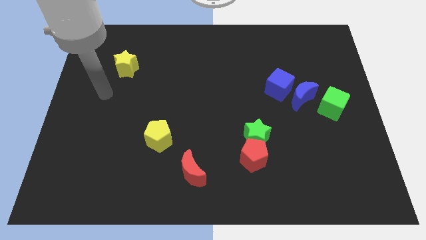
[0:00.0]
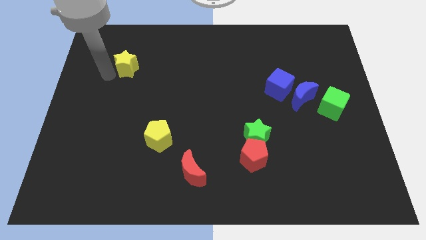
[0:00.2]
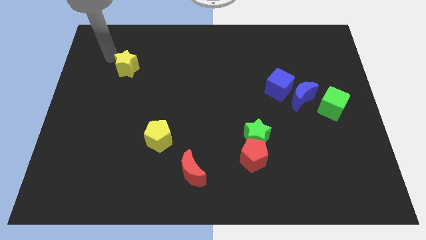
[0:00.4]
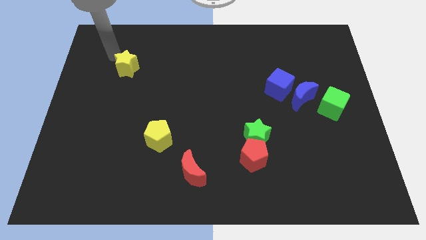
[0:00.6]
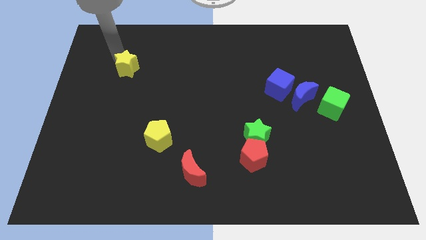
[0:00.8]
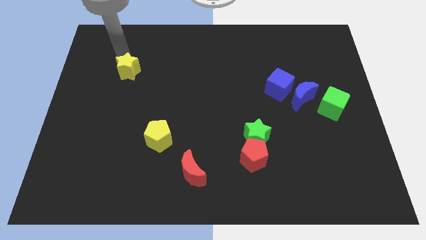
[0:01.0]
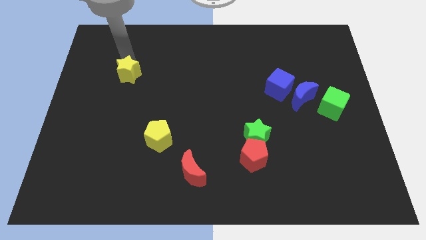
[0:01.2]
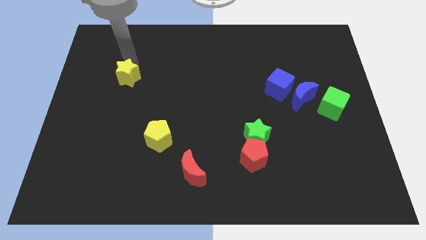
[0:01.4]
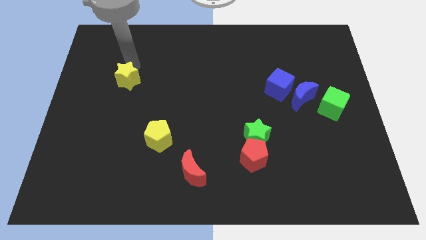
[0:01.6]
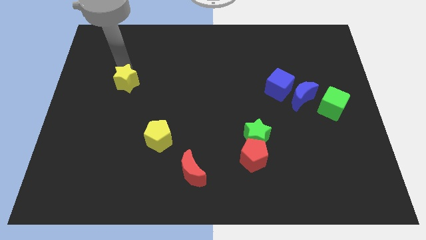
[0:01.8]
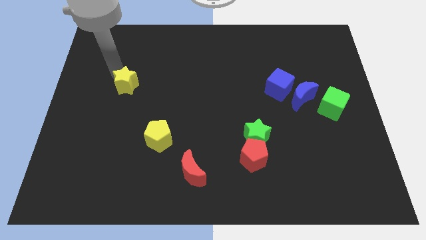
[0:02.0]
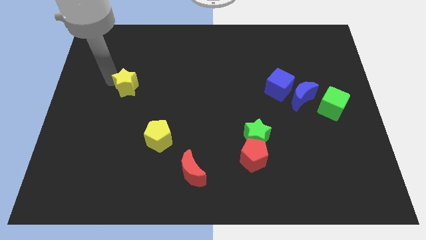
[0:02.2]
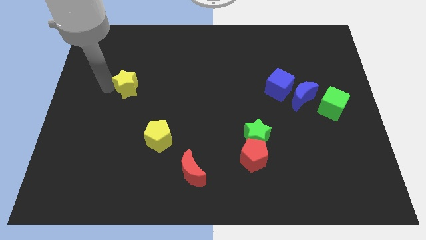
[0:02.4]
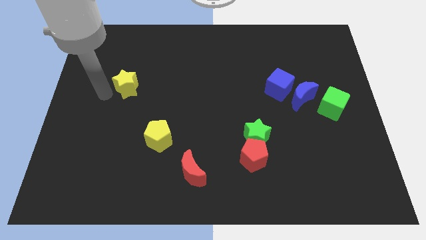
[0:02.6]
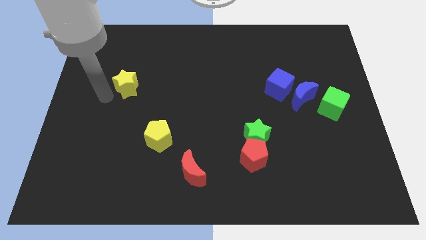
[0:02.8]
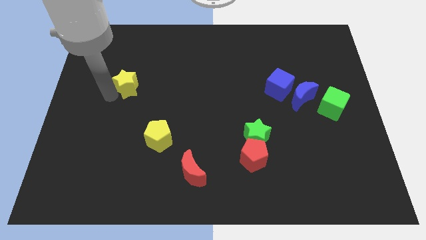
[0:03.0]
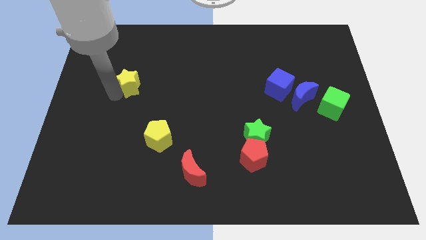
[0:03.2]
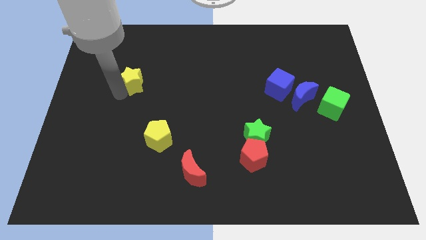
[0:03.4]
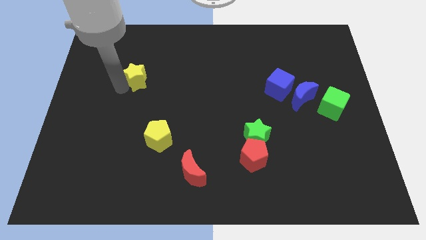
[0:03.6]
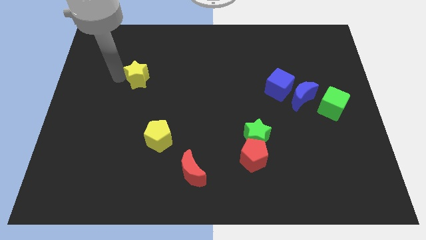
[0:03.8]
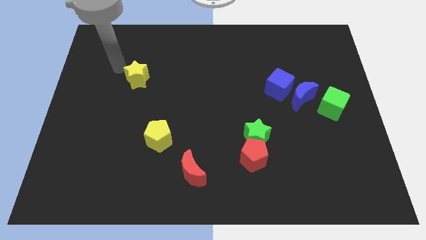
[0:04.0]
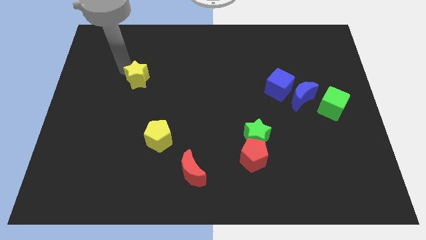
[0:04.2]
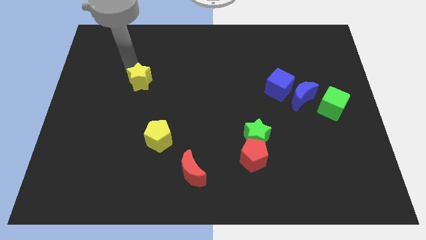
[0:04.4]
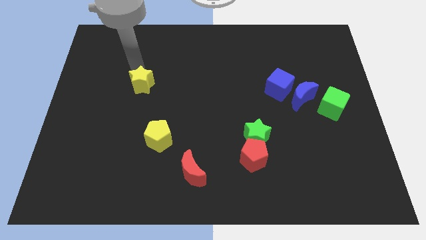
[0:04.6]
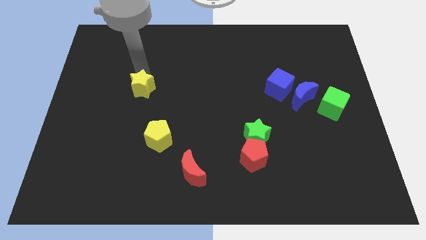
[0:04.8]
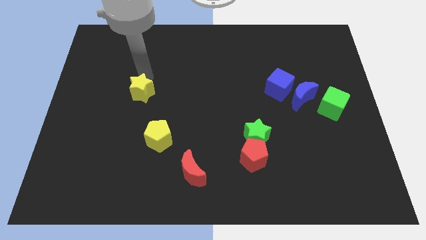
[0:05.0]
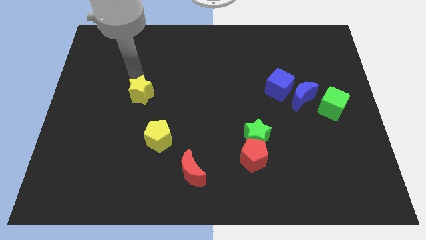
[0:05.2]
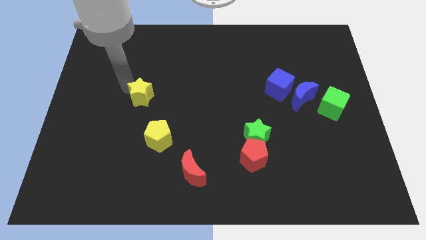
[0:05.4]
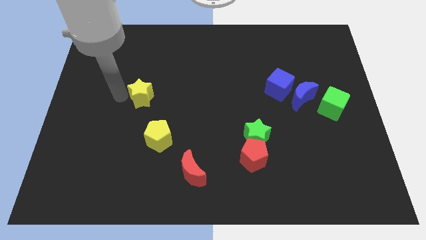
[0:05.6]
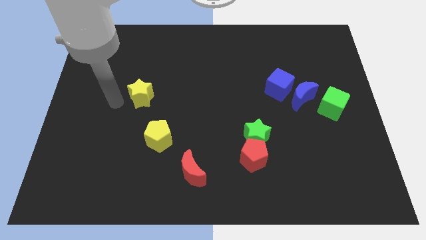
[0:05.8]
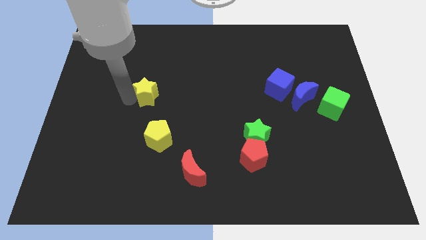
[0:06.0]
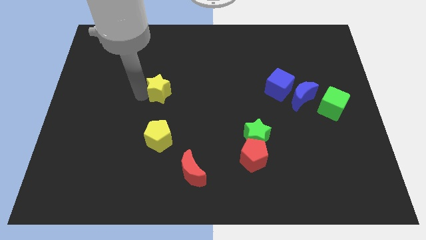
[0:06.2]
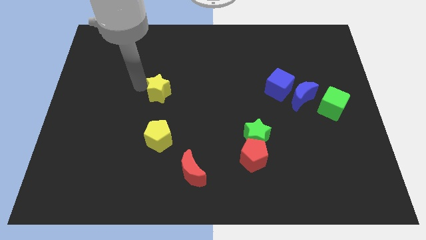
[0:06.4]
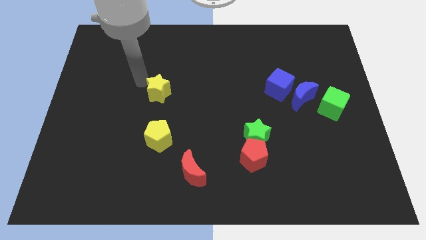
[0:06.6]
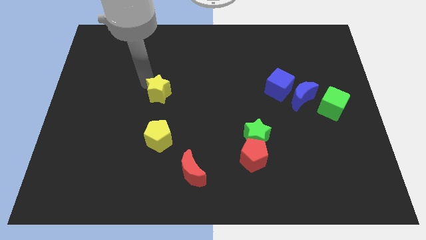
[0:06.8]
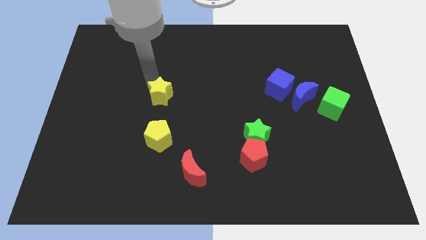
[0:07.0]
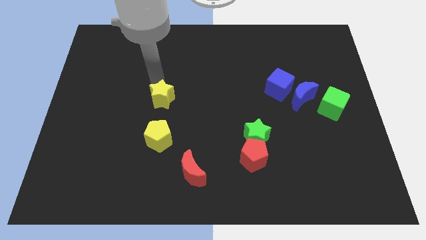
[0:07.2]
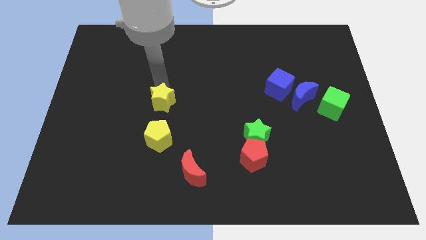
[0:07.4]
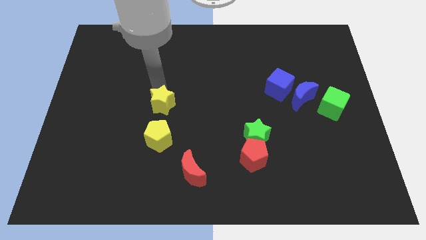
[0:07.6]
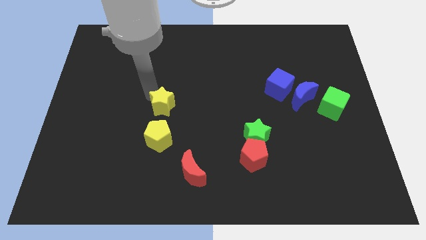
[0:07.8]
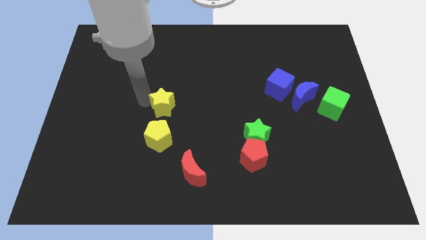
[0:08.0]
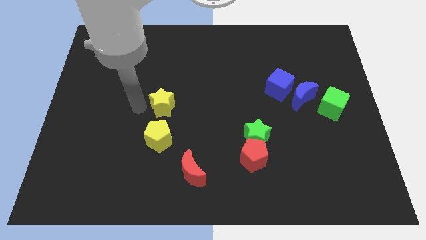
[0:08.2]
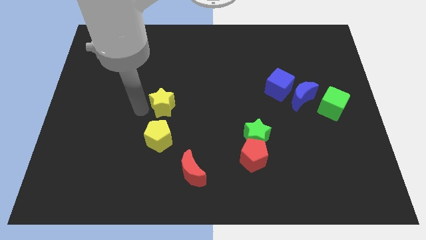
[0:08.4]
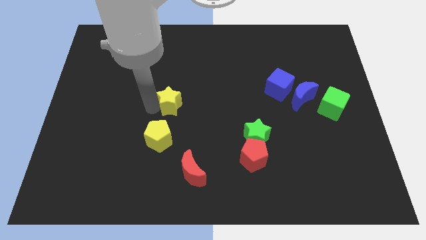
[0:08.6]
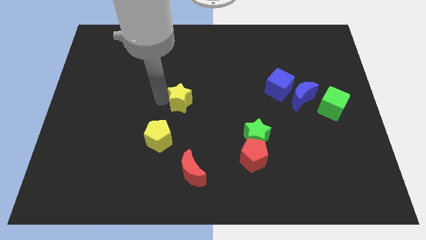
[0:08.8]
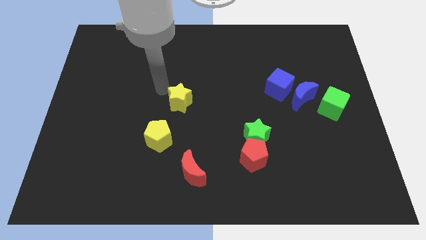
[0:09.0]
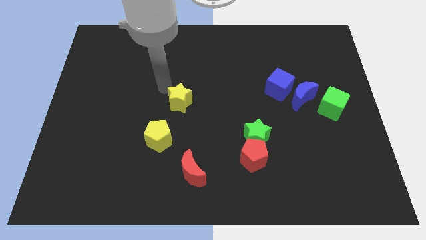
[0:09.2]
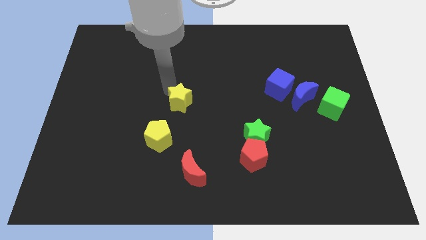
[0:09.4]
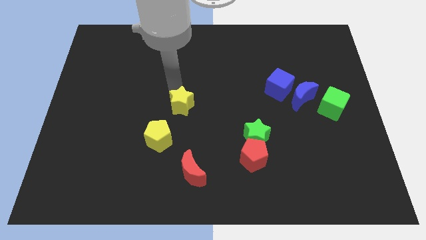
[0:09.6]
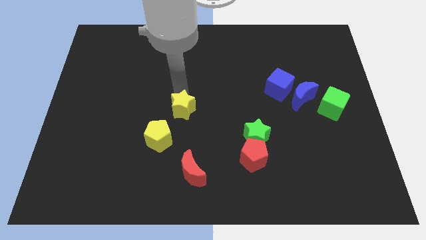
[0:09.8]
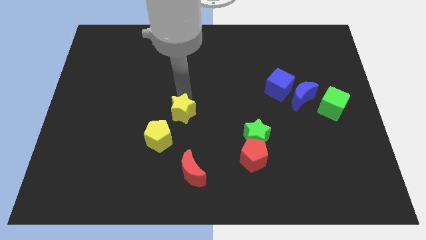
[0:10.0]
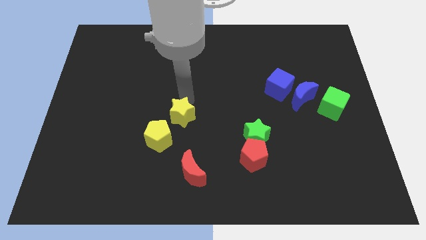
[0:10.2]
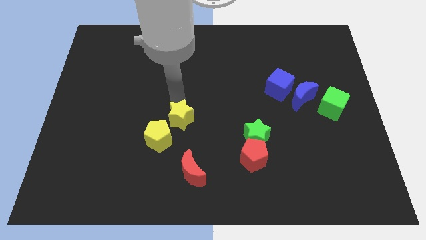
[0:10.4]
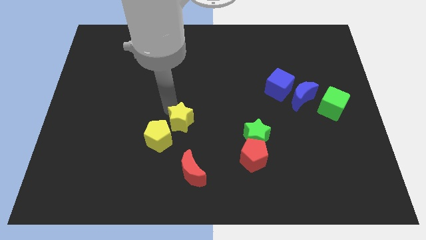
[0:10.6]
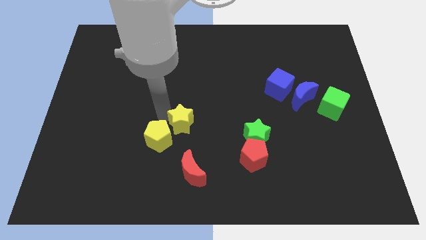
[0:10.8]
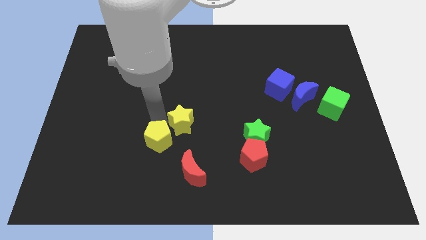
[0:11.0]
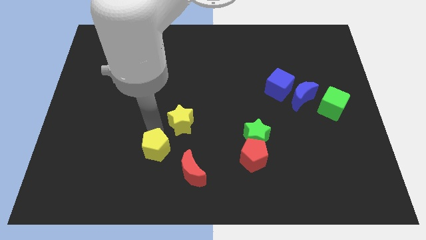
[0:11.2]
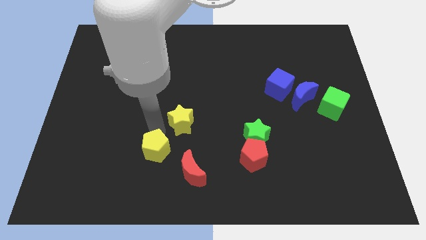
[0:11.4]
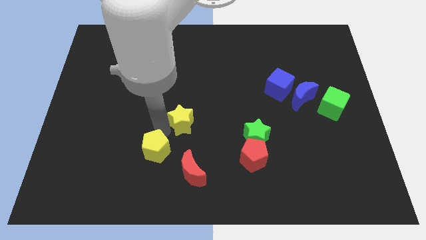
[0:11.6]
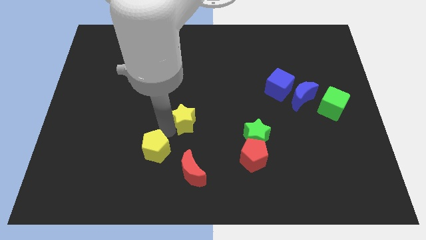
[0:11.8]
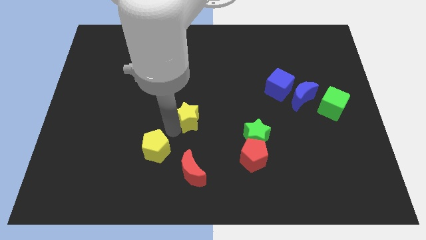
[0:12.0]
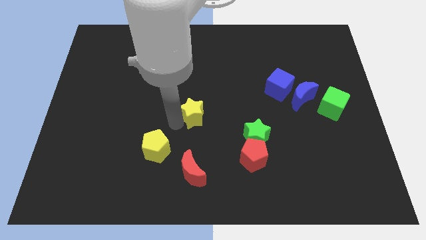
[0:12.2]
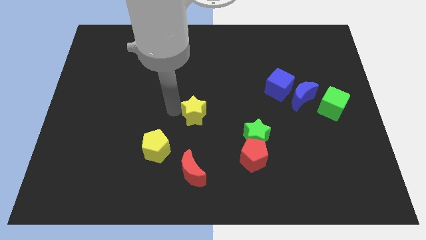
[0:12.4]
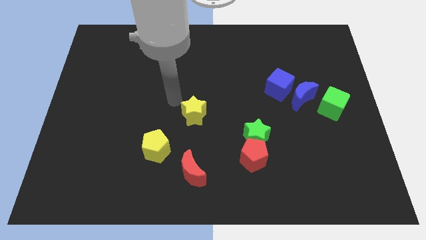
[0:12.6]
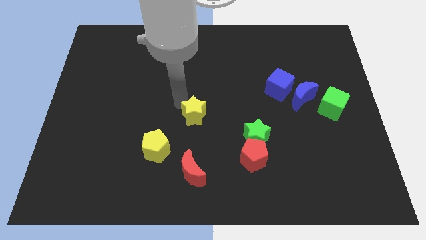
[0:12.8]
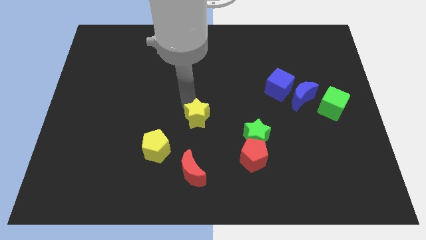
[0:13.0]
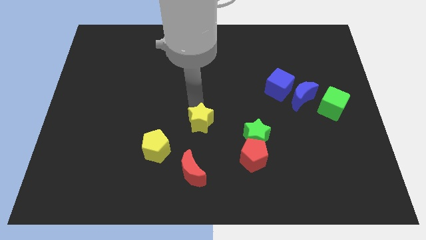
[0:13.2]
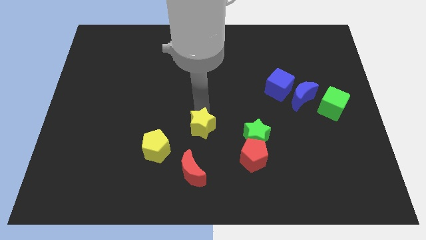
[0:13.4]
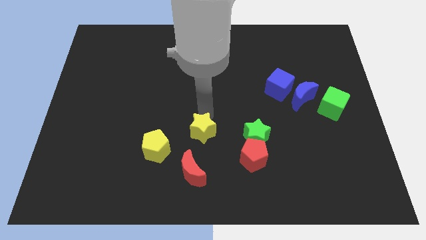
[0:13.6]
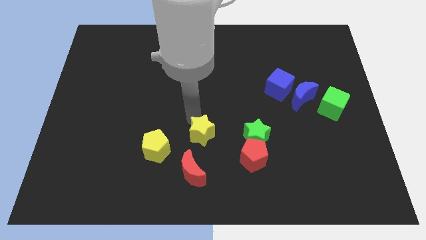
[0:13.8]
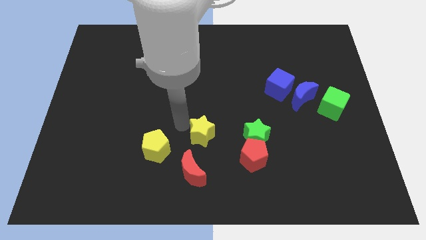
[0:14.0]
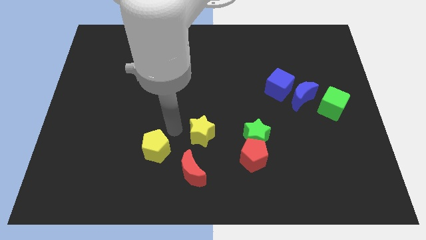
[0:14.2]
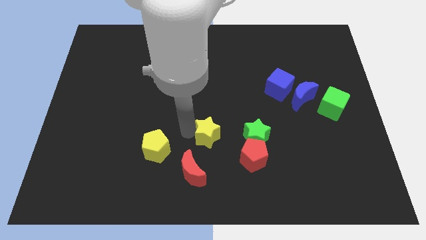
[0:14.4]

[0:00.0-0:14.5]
slide the yellow star to the top left of the red pentagon
